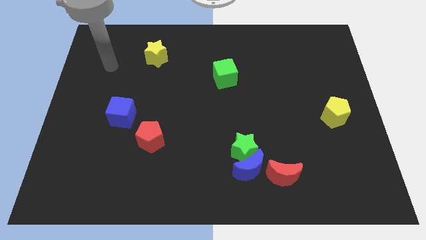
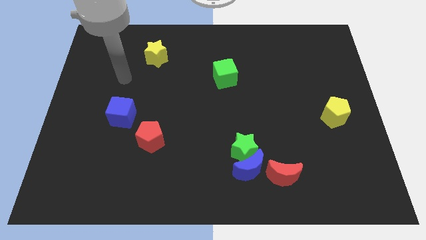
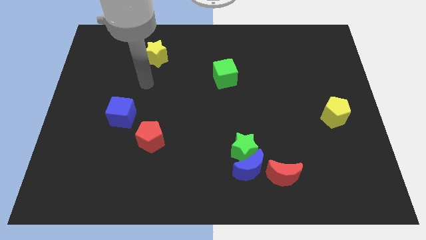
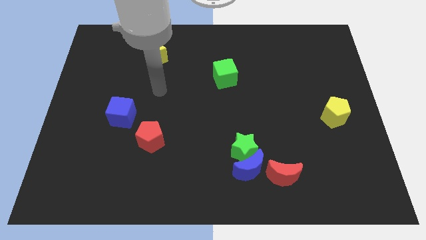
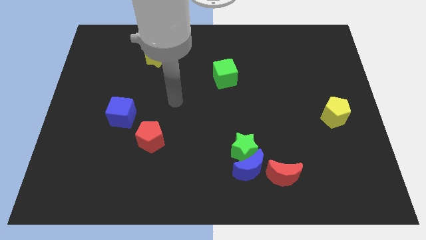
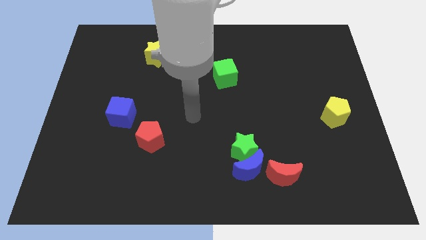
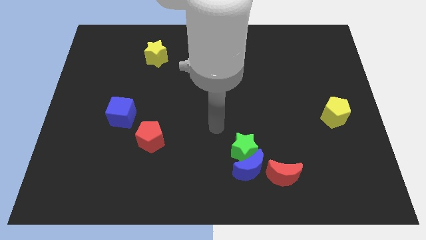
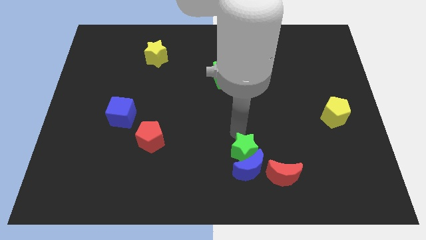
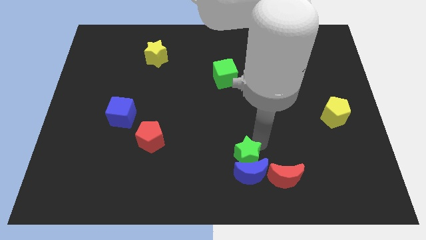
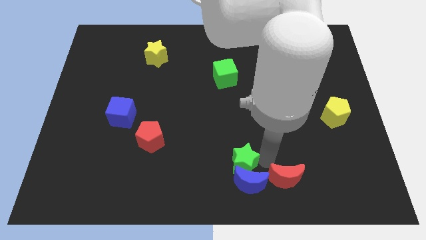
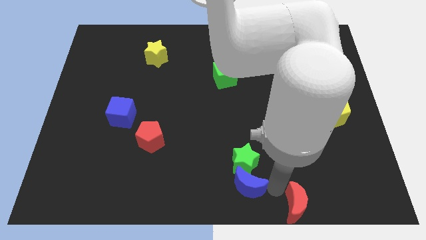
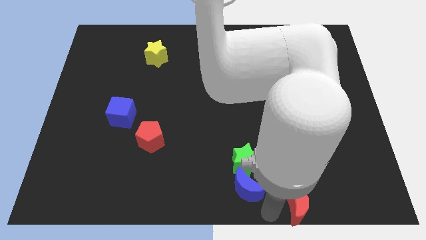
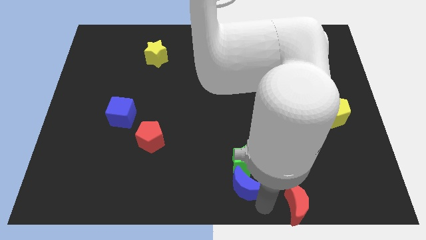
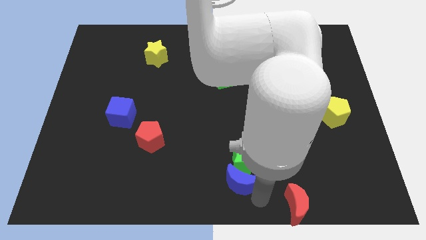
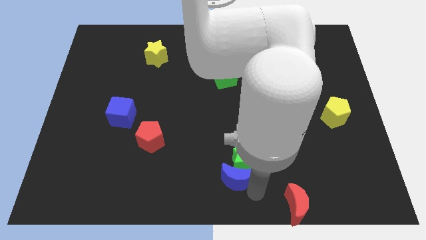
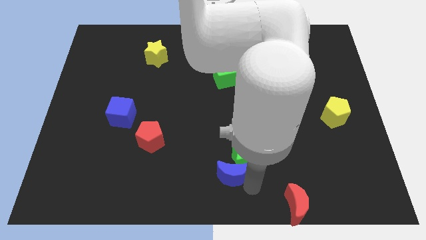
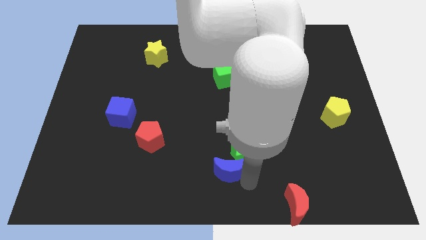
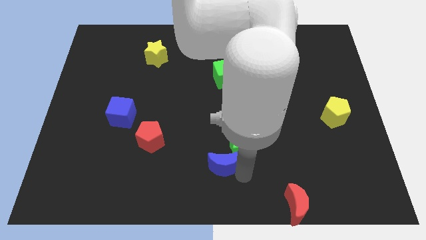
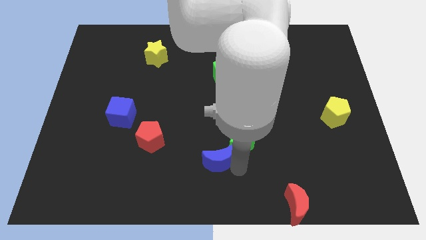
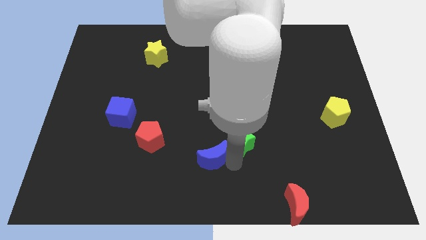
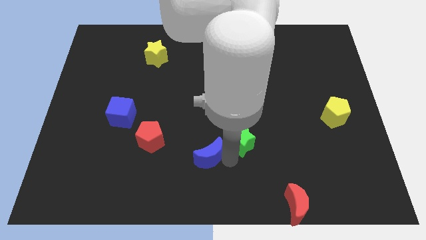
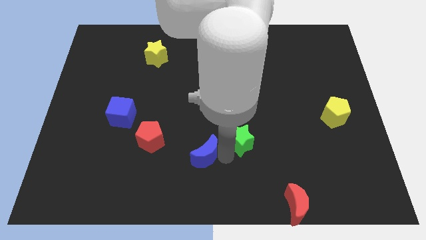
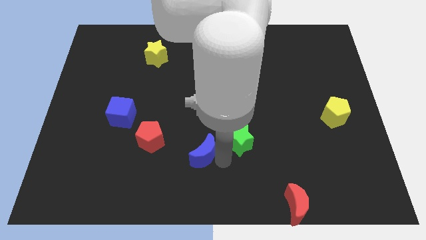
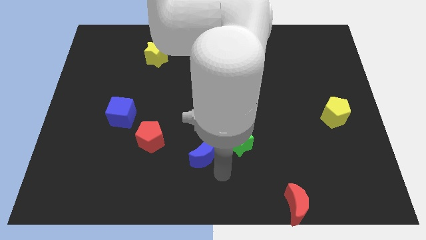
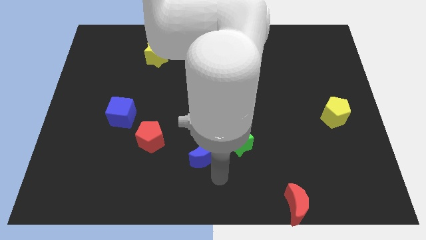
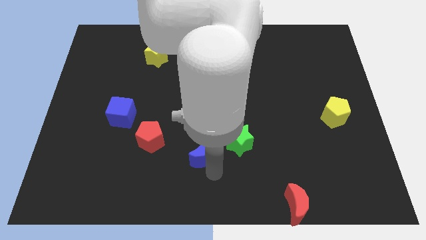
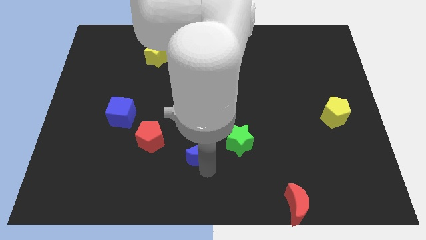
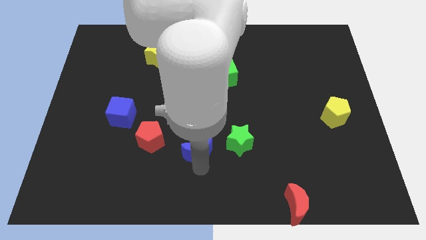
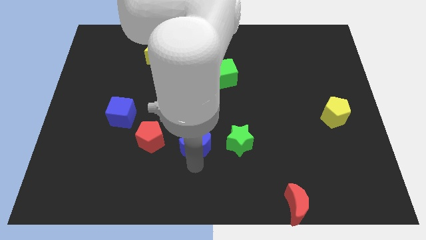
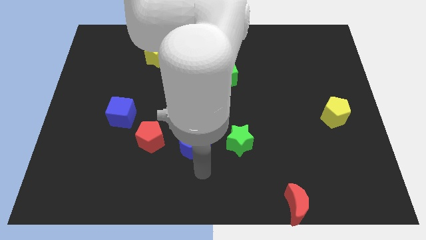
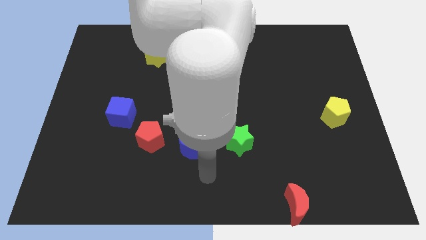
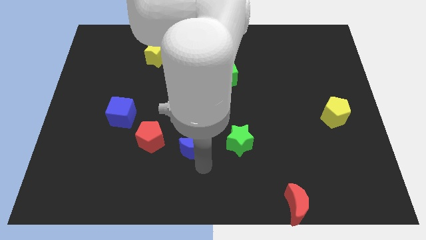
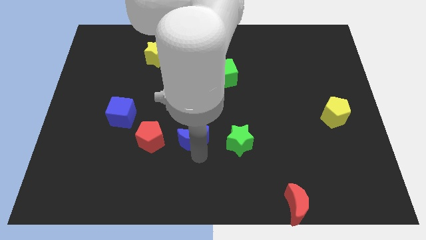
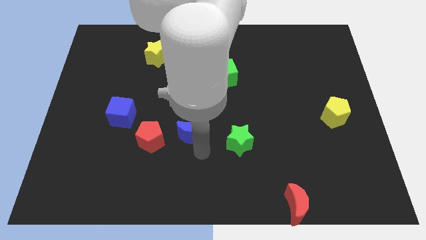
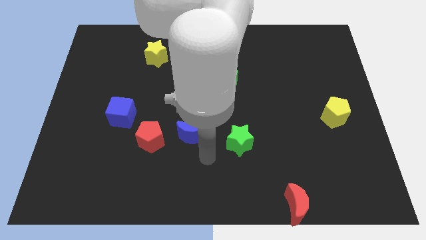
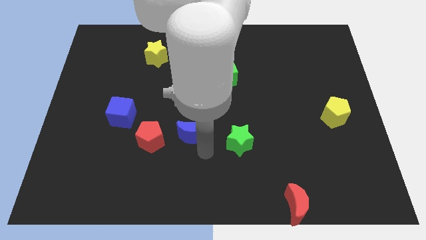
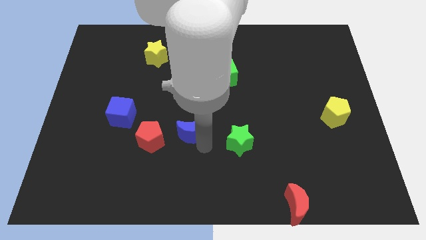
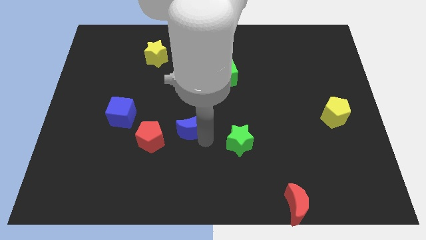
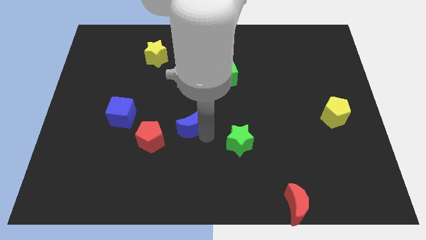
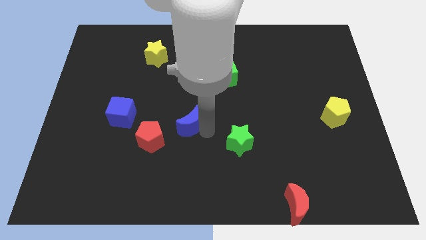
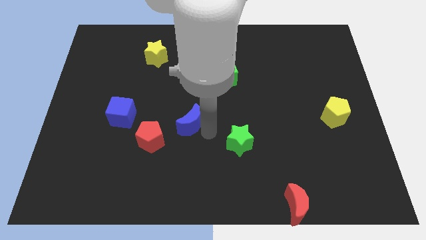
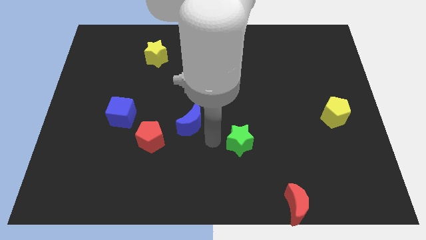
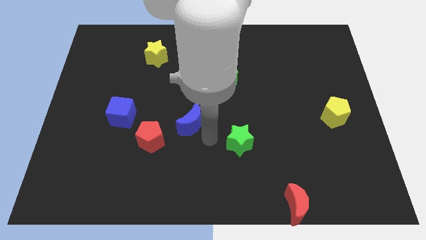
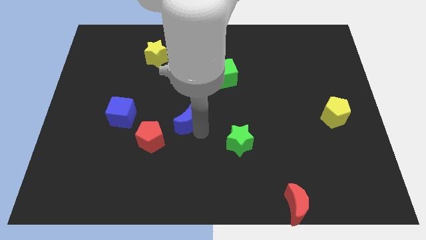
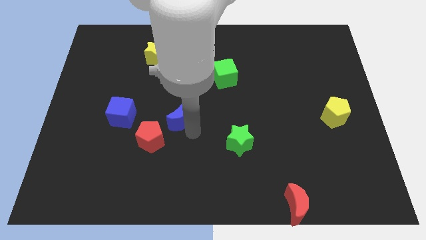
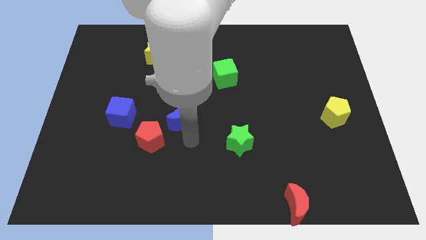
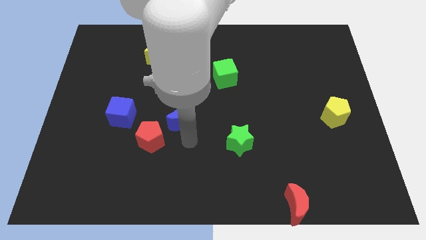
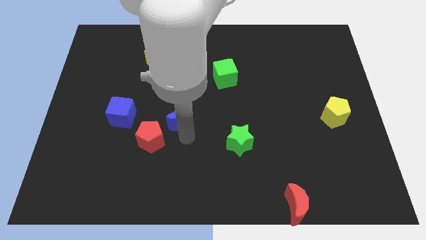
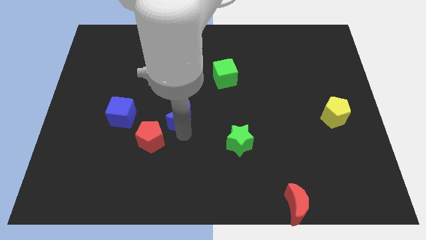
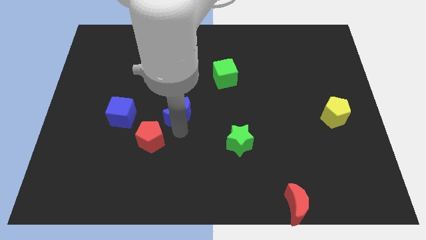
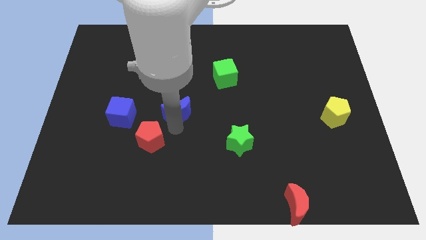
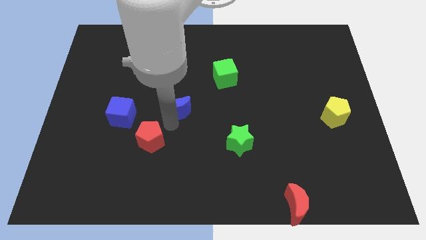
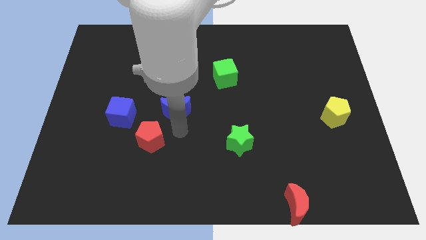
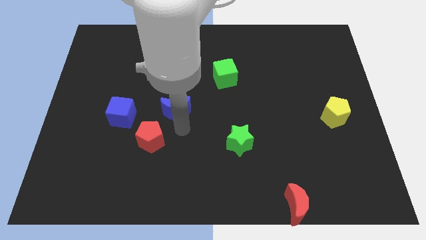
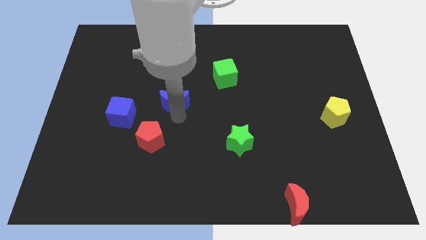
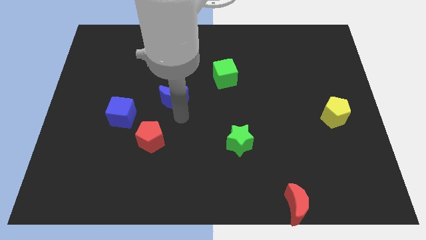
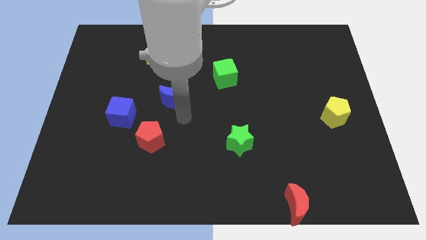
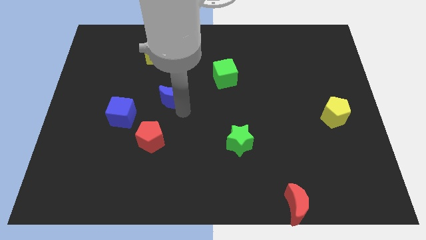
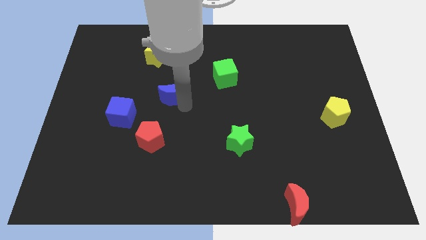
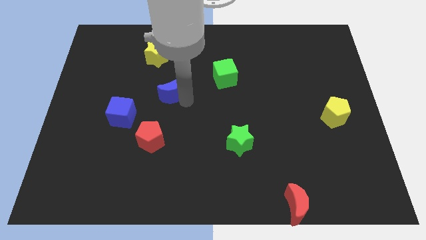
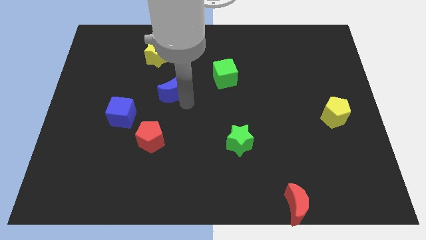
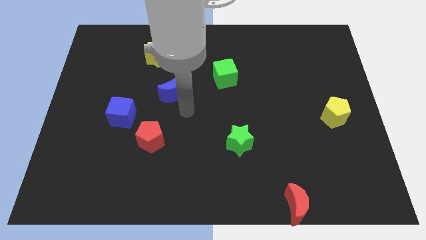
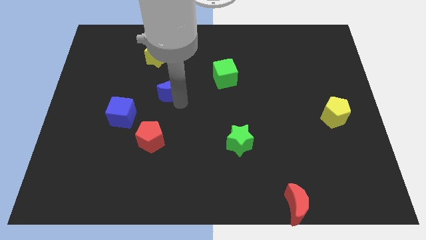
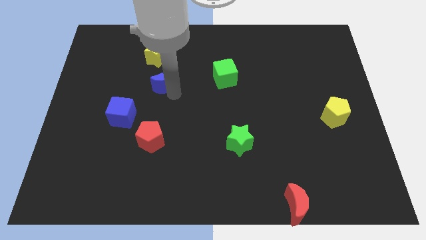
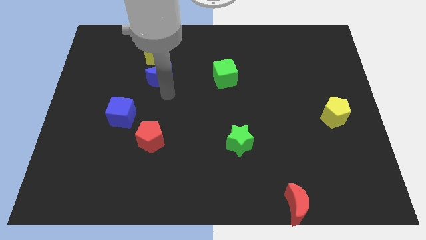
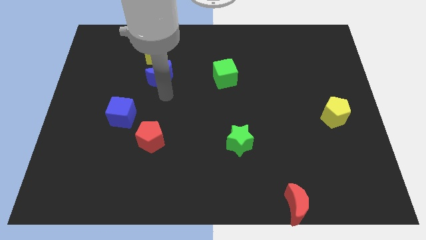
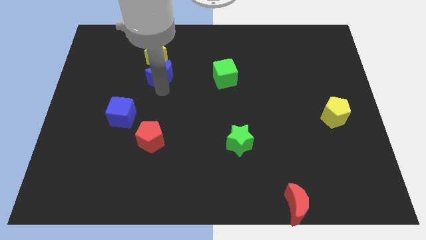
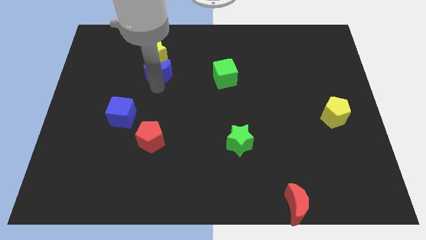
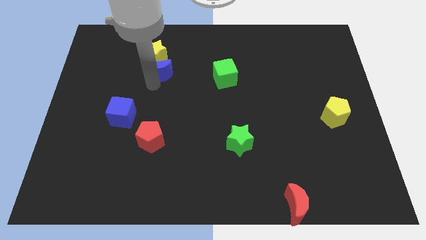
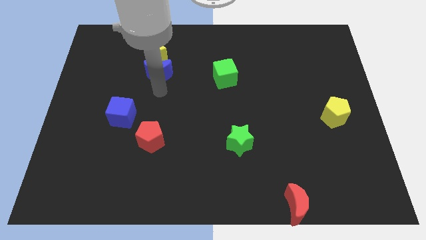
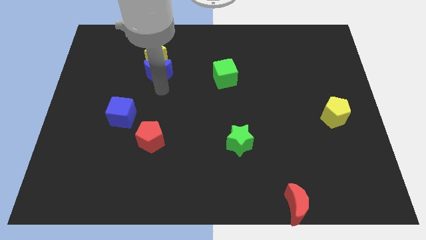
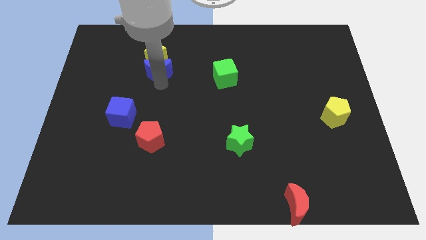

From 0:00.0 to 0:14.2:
move the blue moon towards the yellow star

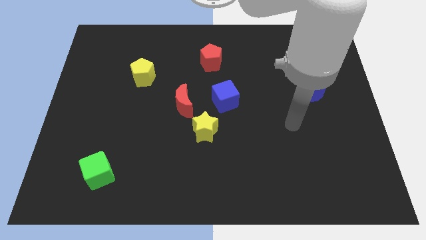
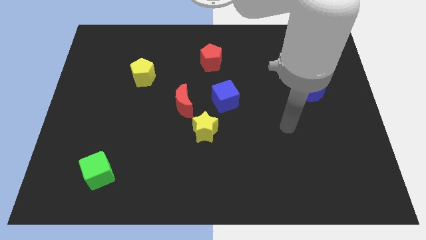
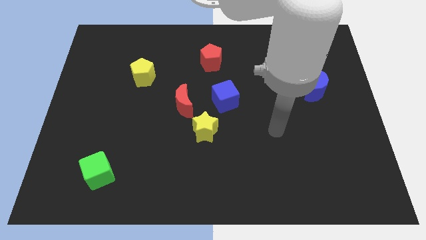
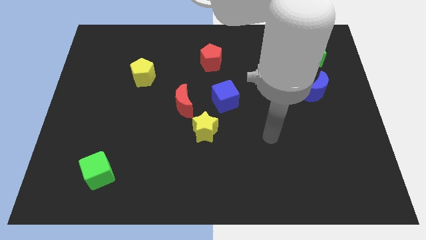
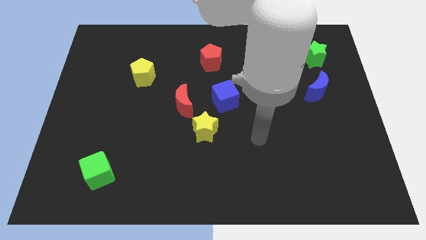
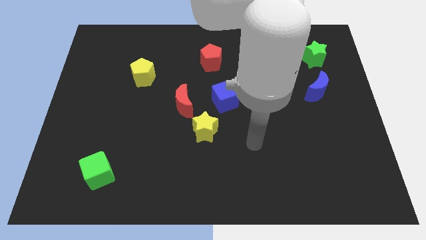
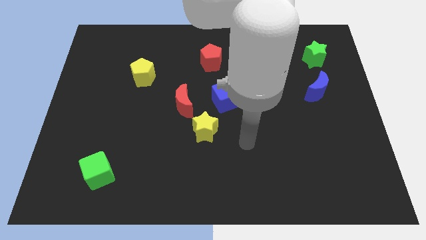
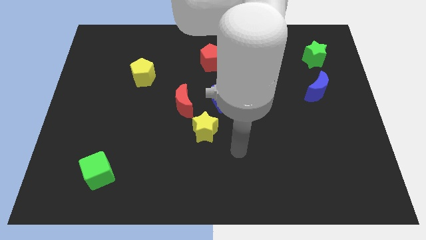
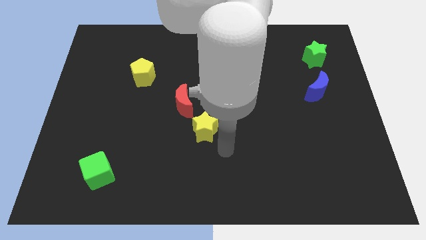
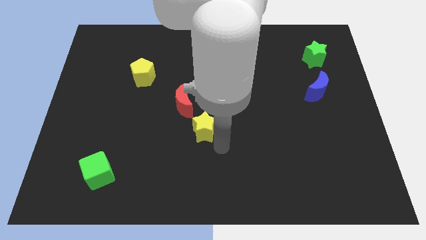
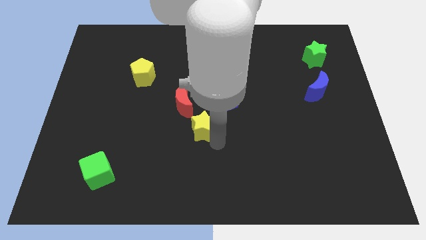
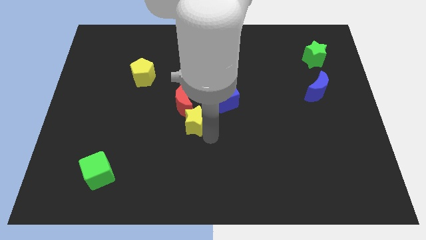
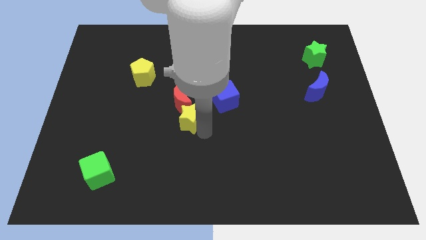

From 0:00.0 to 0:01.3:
put the yellow star towards the red moon
